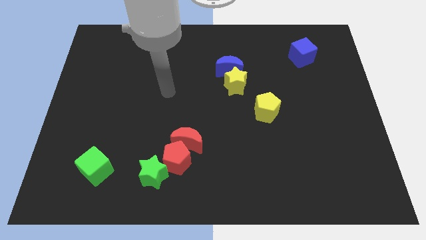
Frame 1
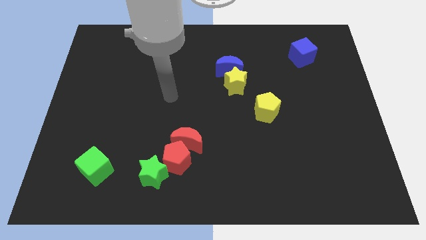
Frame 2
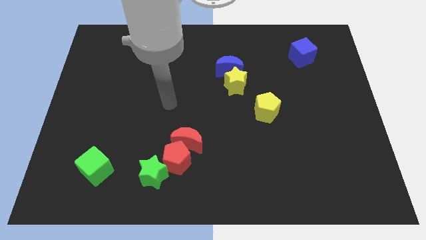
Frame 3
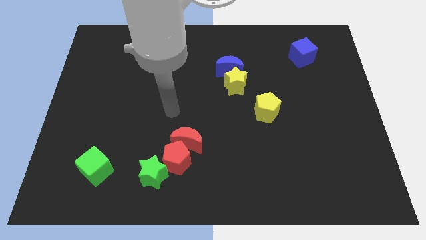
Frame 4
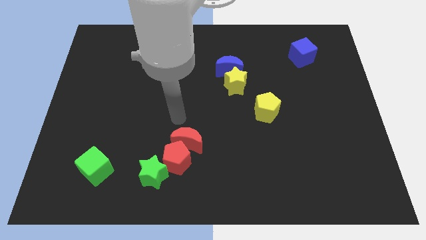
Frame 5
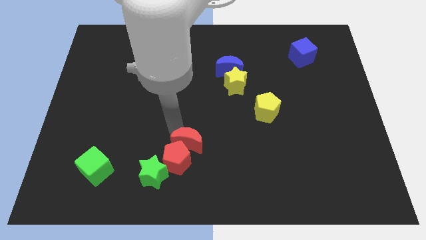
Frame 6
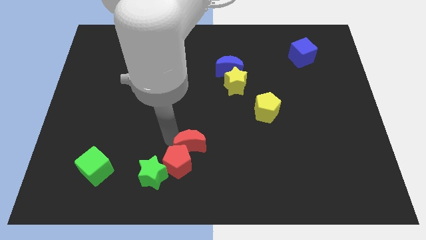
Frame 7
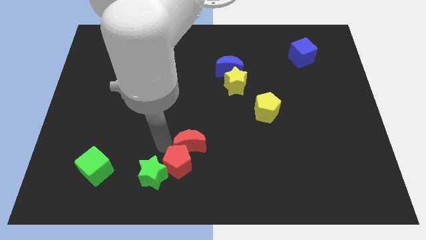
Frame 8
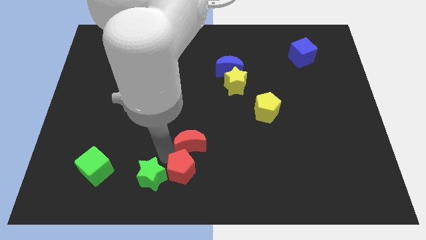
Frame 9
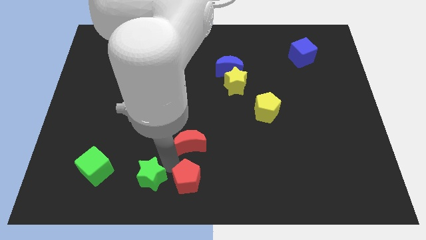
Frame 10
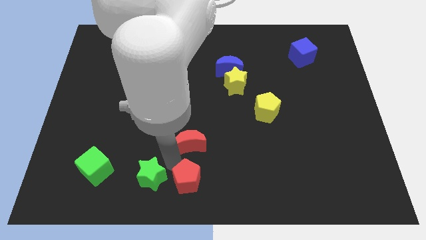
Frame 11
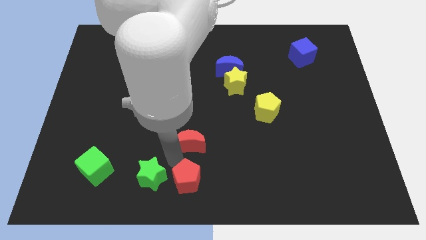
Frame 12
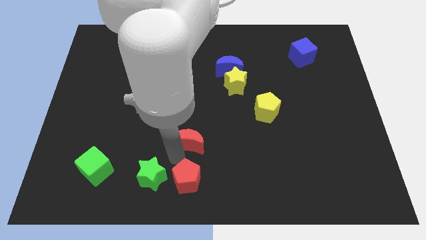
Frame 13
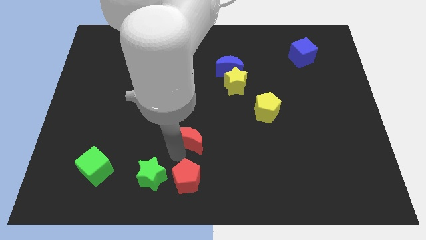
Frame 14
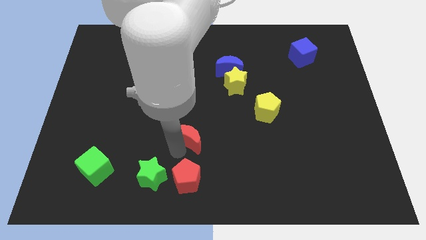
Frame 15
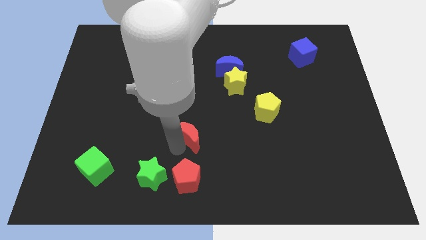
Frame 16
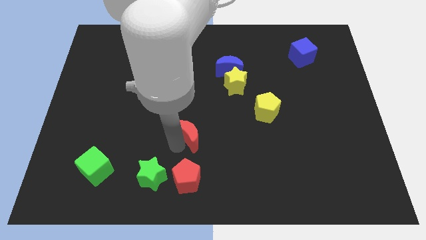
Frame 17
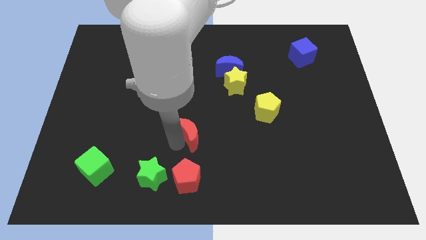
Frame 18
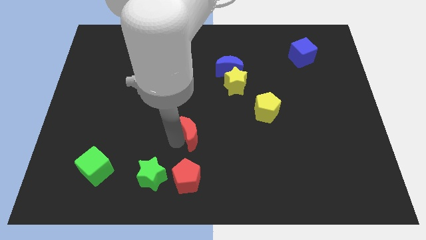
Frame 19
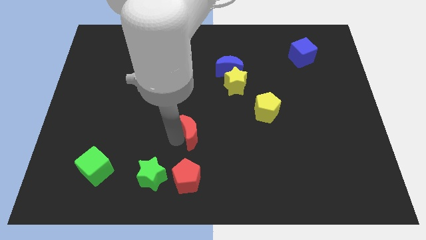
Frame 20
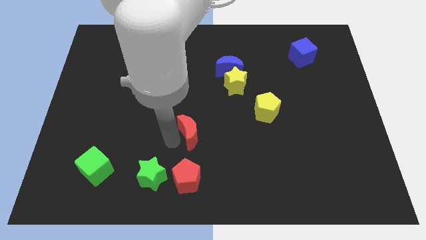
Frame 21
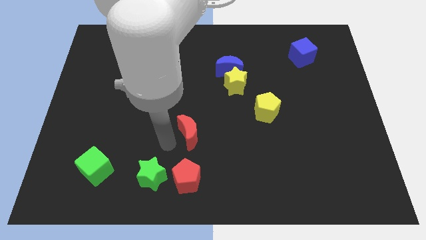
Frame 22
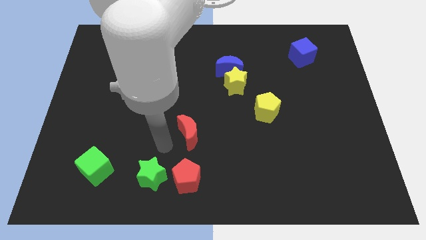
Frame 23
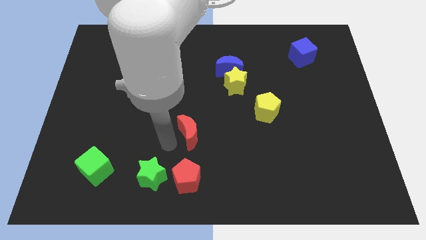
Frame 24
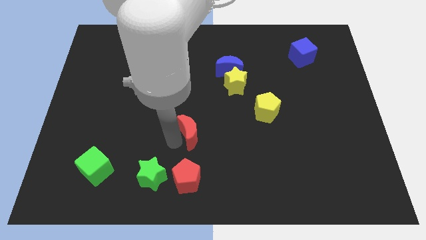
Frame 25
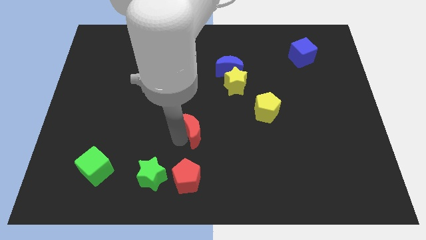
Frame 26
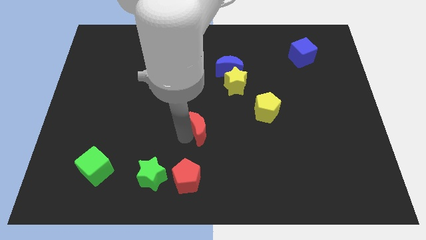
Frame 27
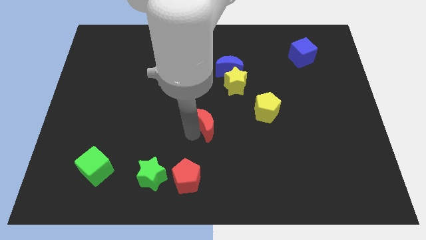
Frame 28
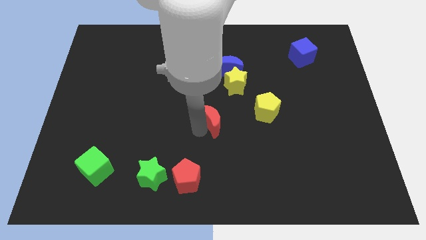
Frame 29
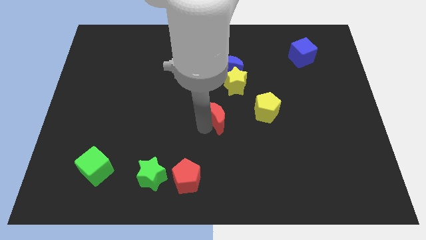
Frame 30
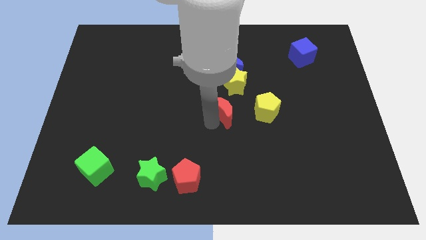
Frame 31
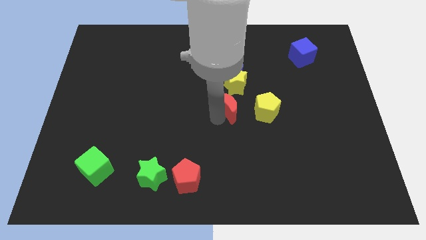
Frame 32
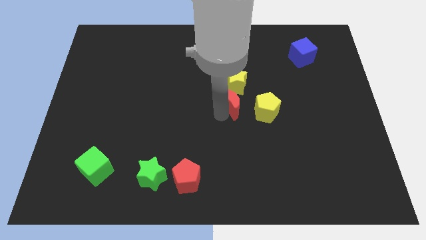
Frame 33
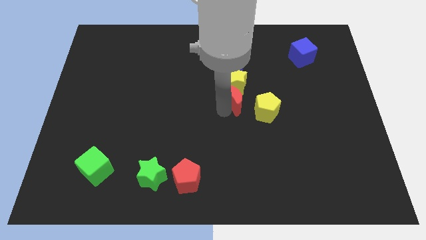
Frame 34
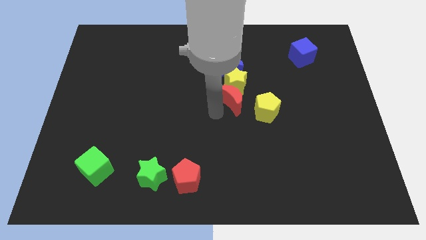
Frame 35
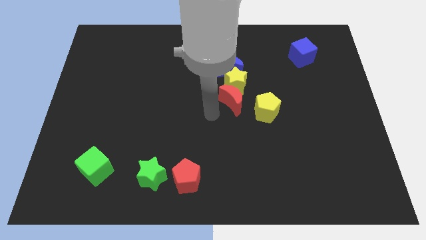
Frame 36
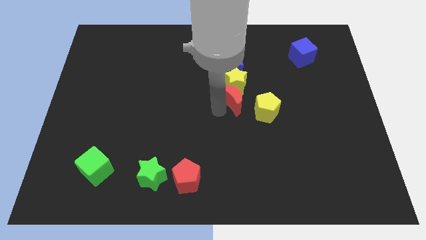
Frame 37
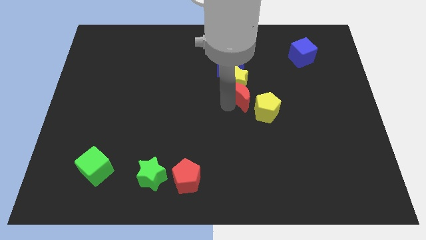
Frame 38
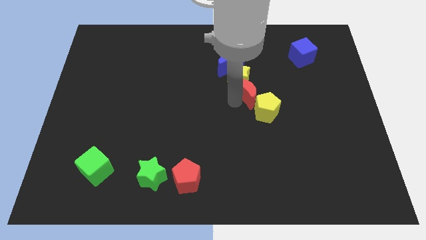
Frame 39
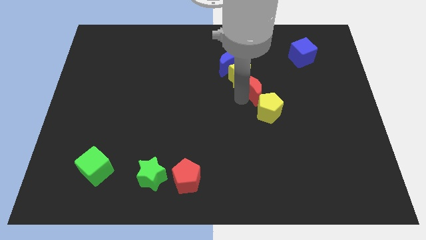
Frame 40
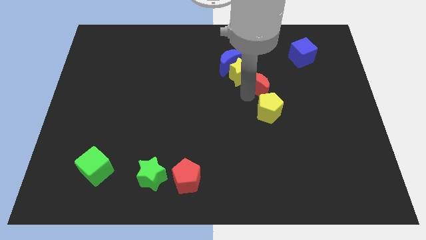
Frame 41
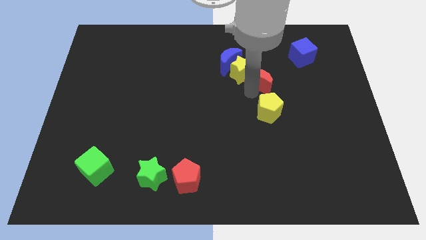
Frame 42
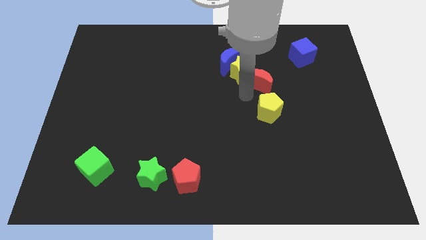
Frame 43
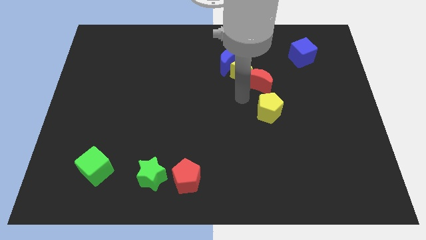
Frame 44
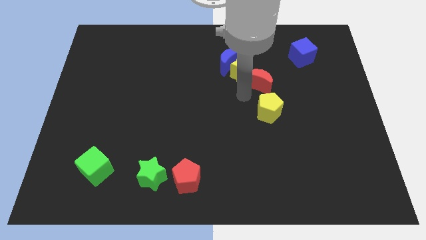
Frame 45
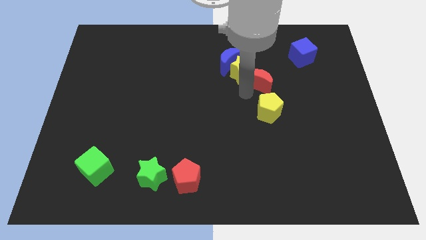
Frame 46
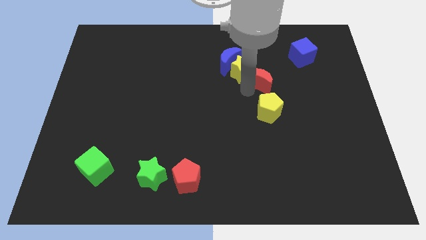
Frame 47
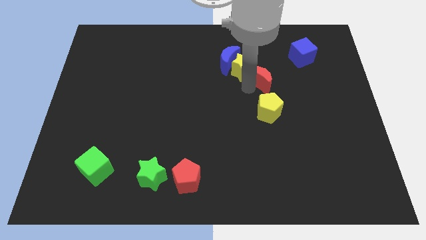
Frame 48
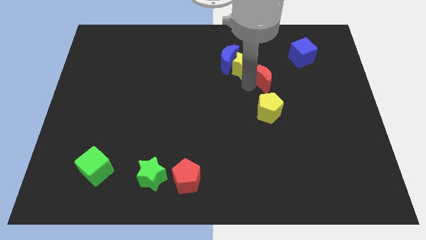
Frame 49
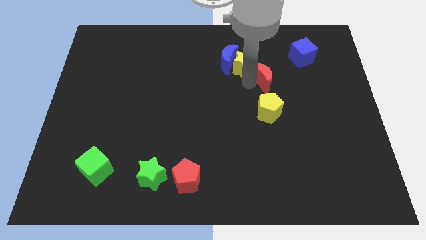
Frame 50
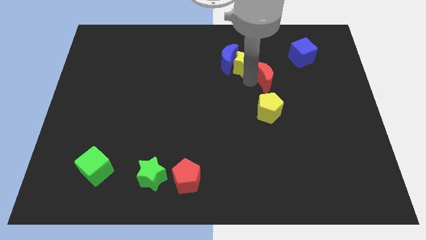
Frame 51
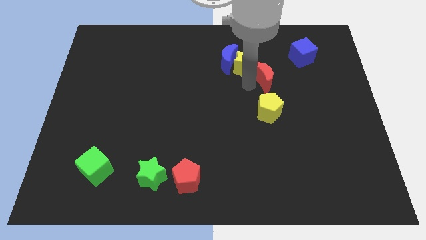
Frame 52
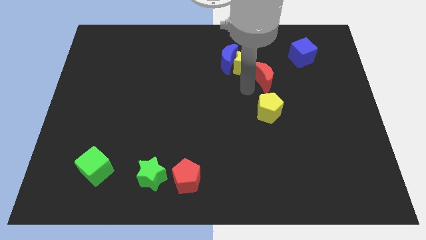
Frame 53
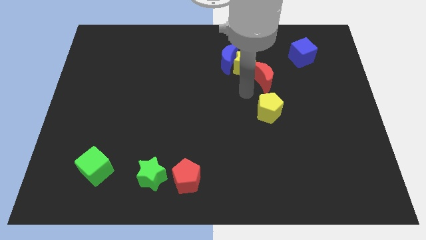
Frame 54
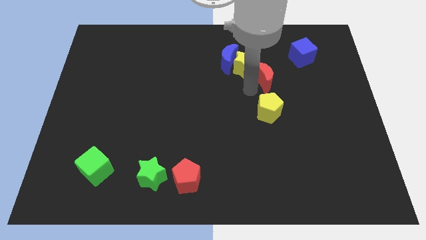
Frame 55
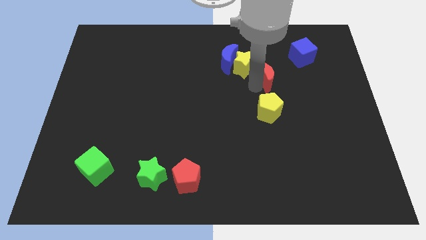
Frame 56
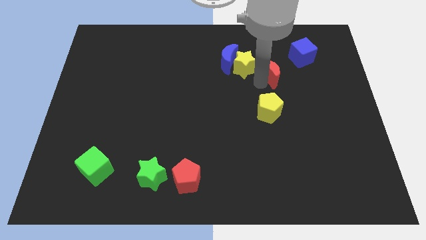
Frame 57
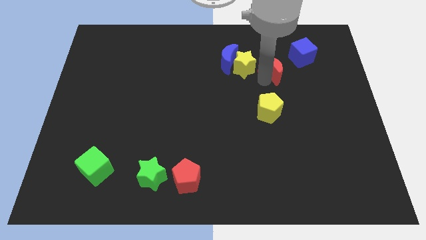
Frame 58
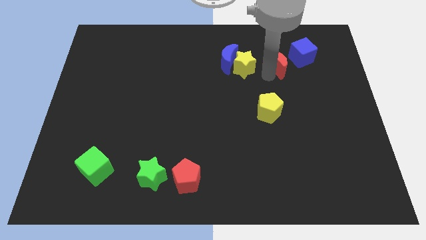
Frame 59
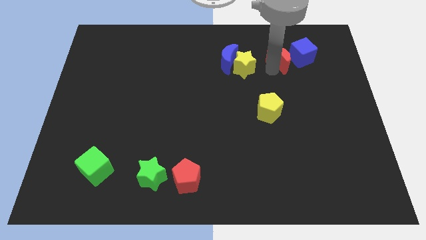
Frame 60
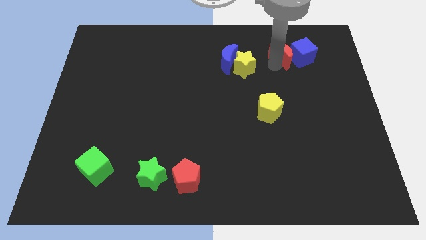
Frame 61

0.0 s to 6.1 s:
put the red moon to the blue cube
